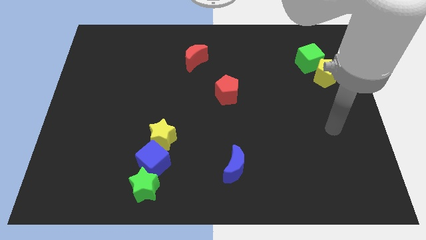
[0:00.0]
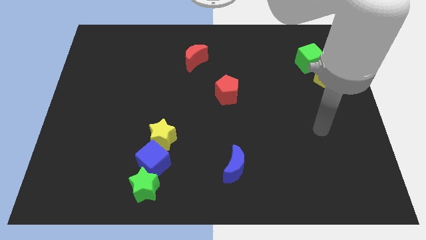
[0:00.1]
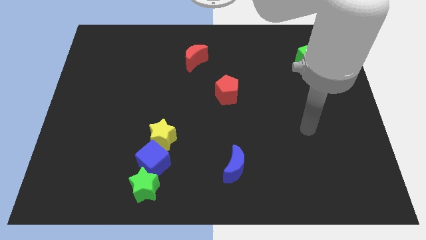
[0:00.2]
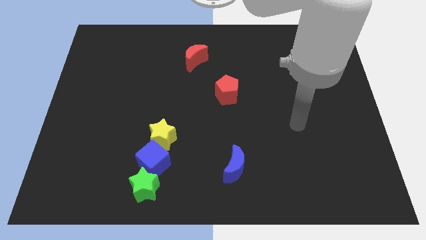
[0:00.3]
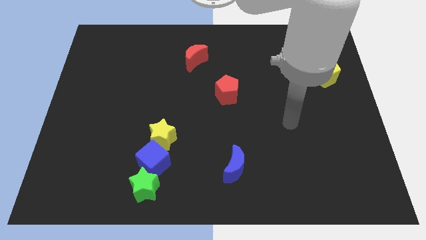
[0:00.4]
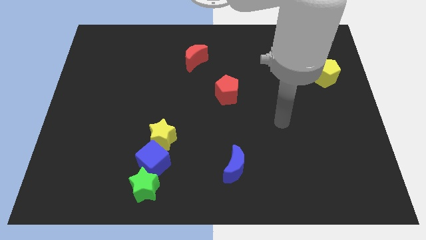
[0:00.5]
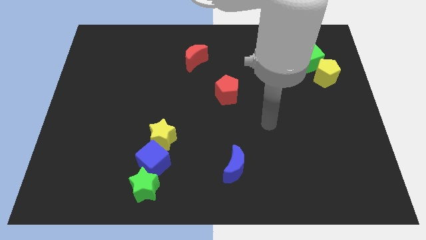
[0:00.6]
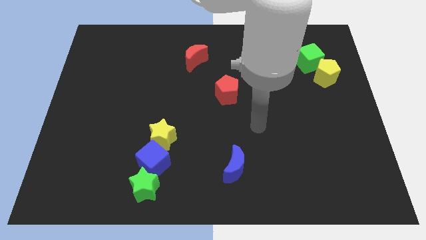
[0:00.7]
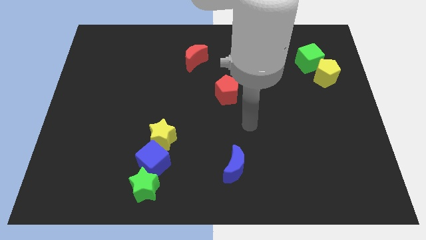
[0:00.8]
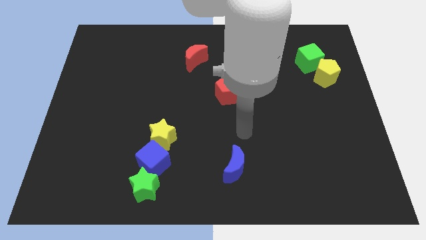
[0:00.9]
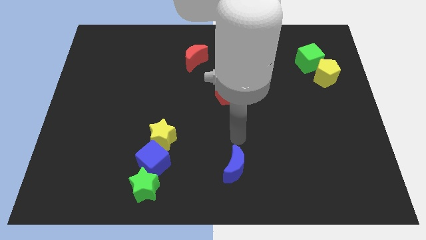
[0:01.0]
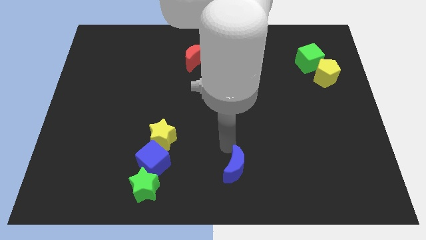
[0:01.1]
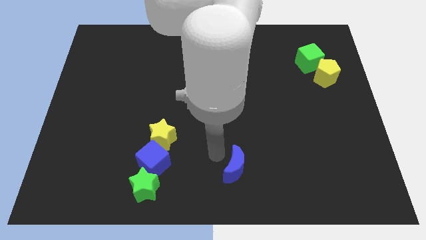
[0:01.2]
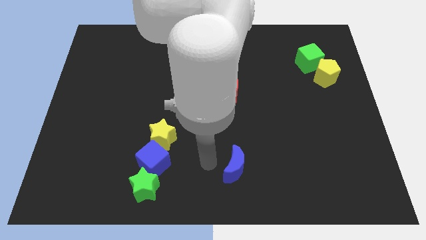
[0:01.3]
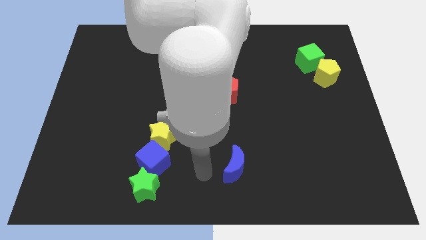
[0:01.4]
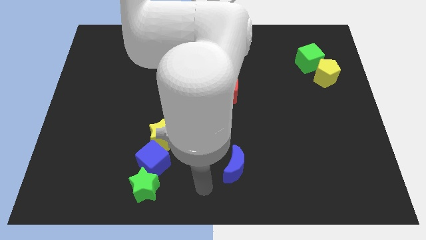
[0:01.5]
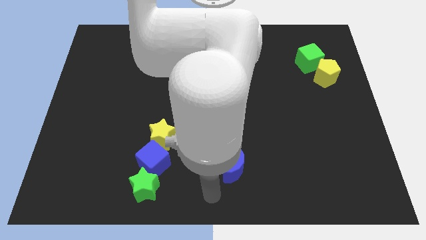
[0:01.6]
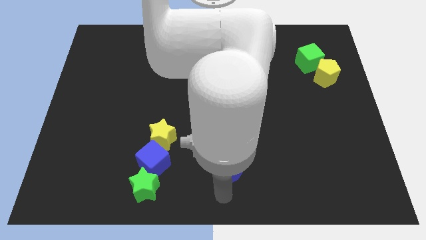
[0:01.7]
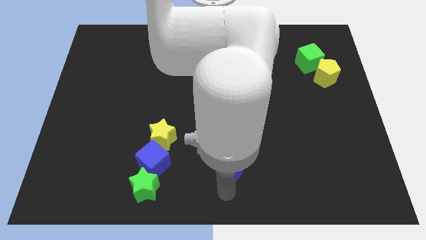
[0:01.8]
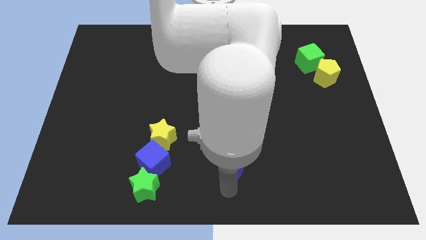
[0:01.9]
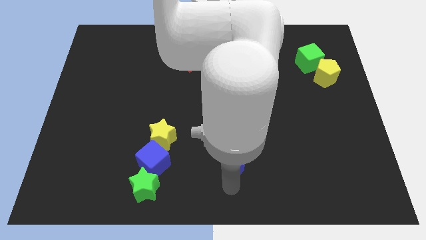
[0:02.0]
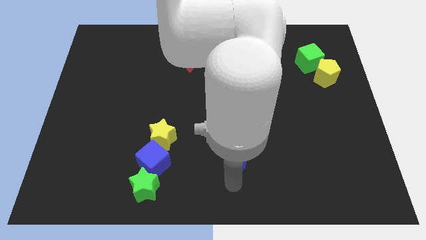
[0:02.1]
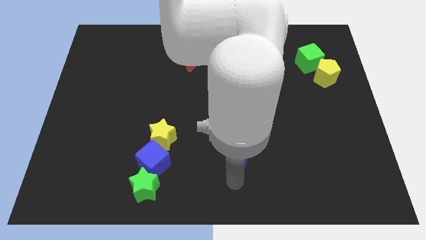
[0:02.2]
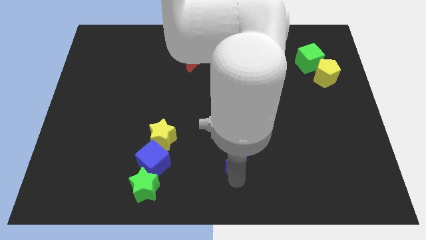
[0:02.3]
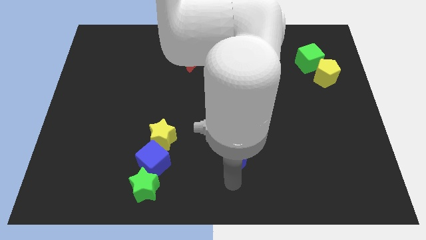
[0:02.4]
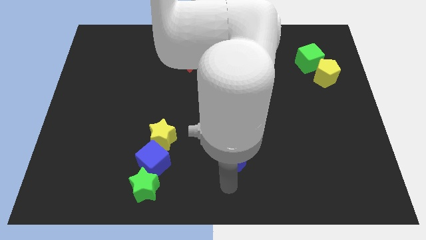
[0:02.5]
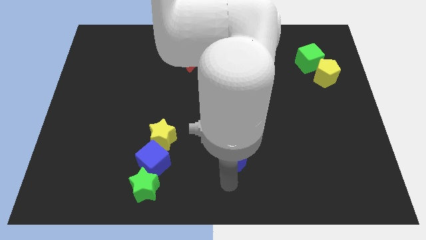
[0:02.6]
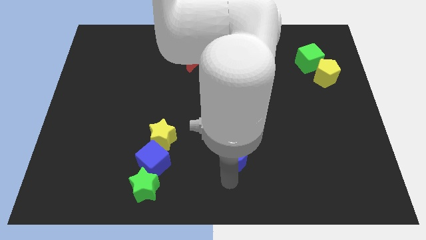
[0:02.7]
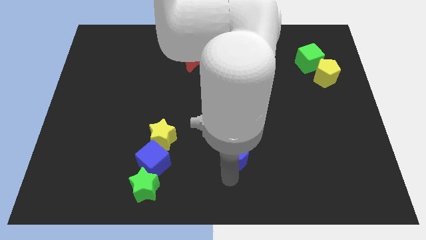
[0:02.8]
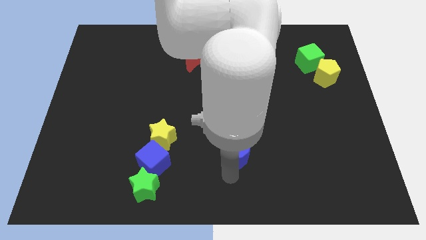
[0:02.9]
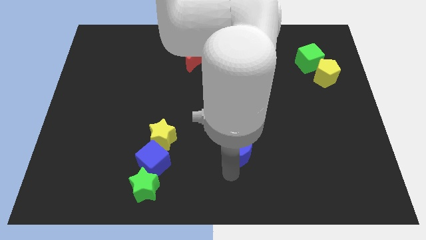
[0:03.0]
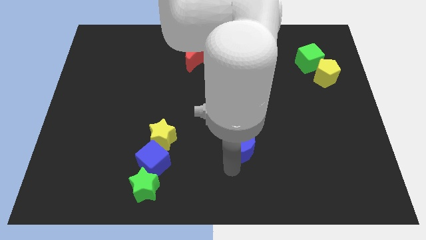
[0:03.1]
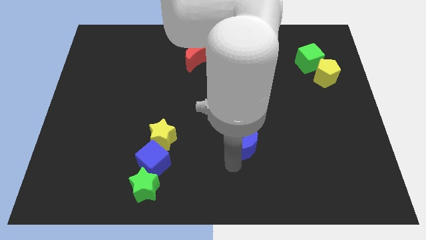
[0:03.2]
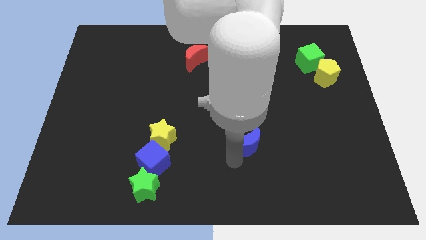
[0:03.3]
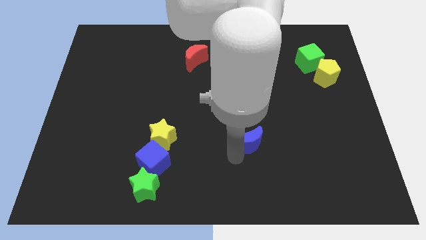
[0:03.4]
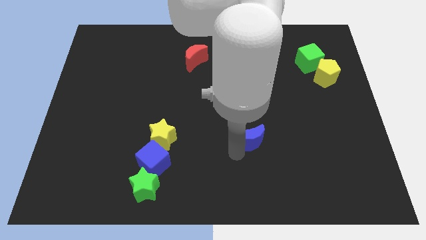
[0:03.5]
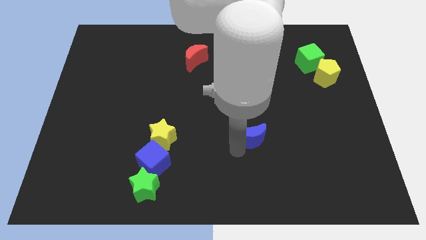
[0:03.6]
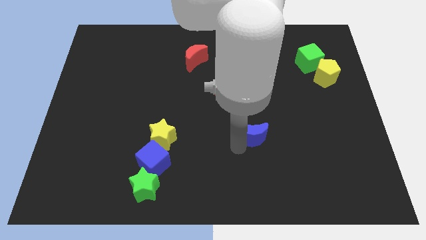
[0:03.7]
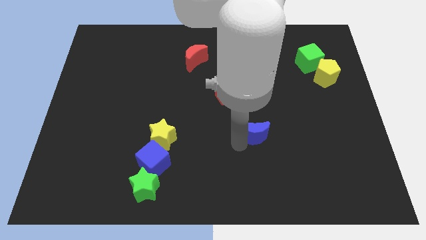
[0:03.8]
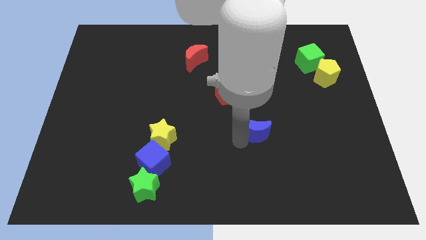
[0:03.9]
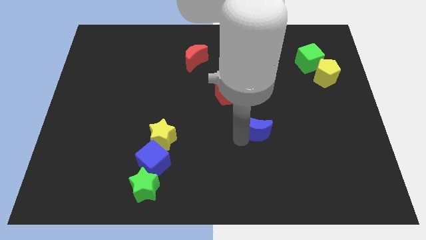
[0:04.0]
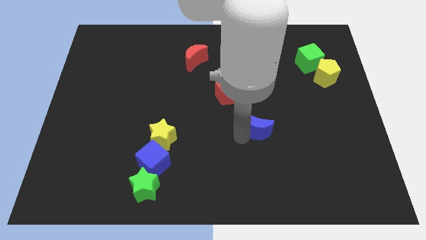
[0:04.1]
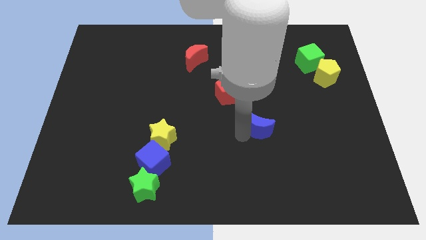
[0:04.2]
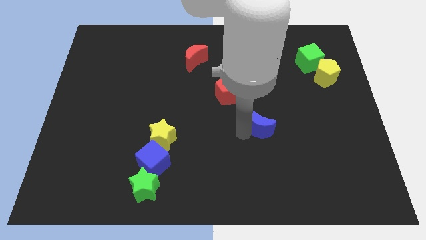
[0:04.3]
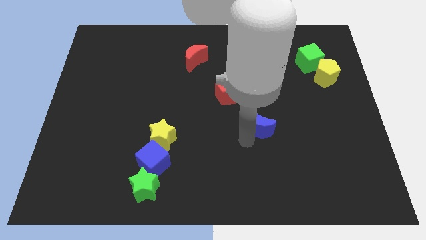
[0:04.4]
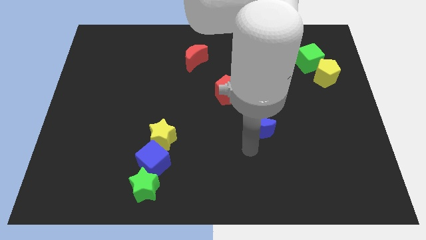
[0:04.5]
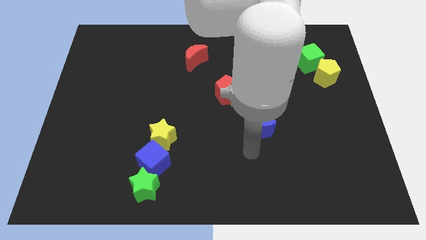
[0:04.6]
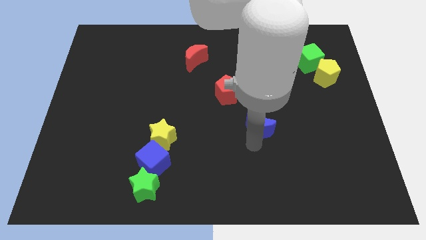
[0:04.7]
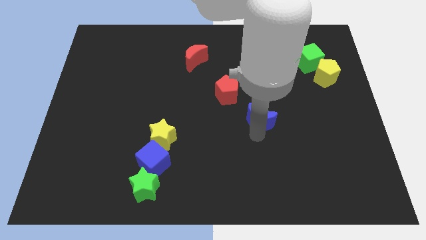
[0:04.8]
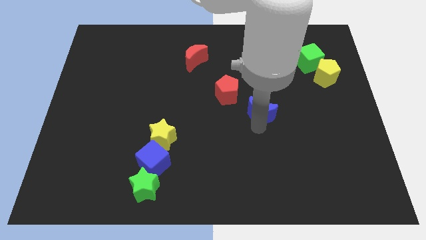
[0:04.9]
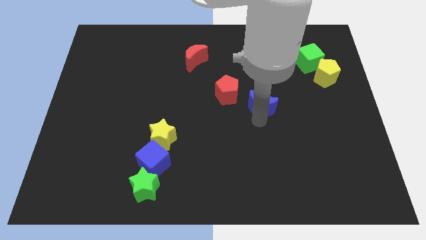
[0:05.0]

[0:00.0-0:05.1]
push the blue moon to the right side of the red pentagon

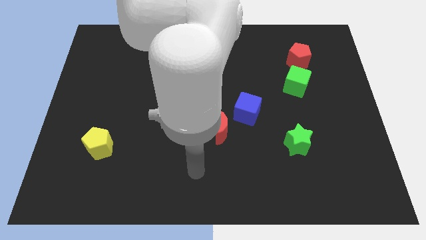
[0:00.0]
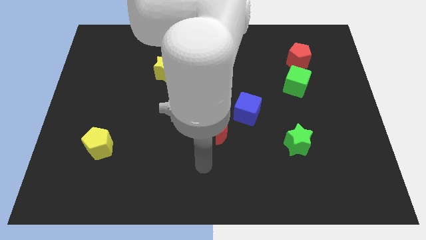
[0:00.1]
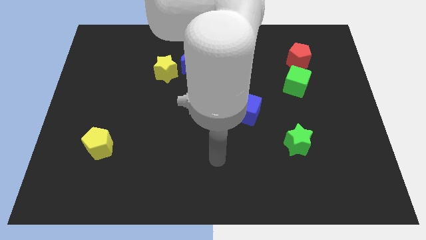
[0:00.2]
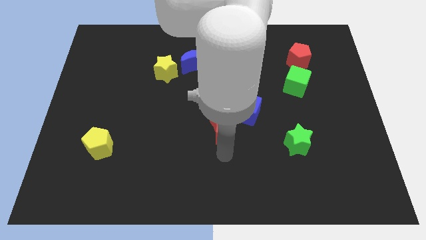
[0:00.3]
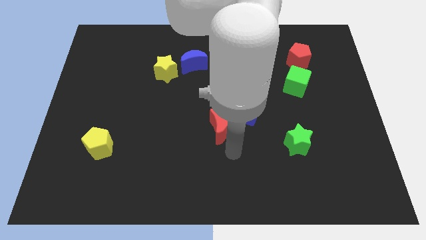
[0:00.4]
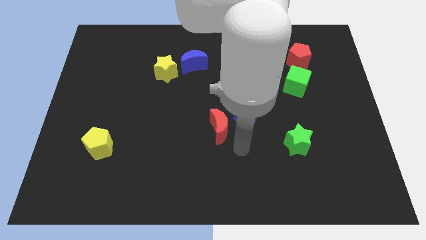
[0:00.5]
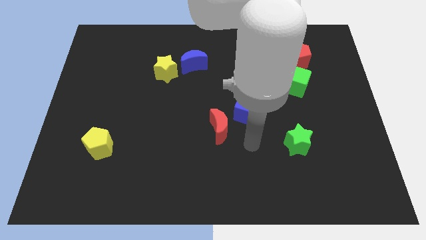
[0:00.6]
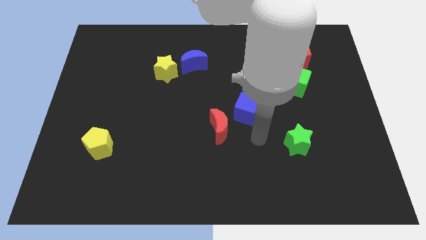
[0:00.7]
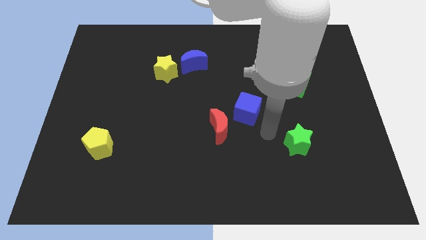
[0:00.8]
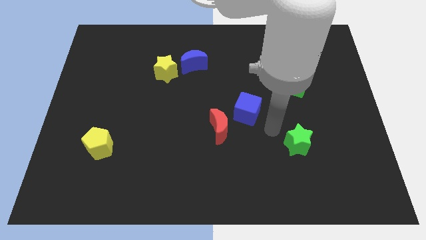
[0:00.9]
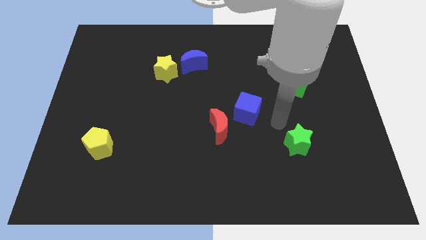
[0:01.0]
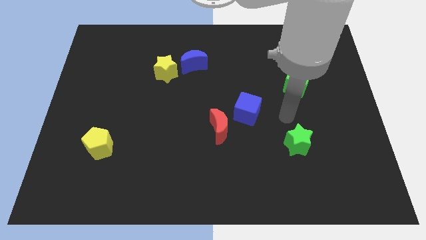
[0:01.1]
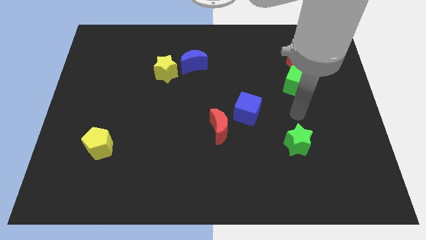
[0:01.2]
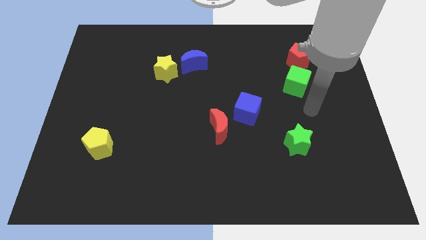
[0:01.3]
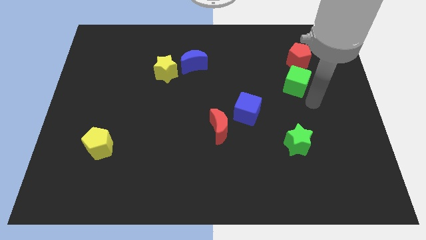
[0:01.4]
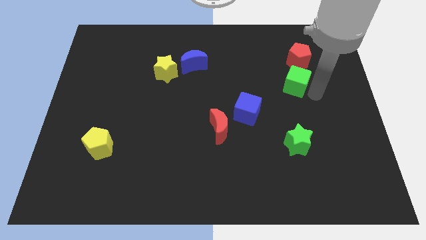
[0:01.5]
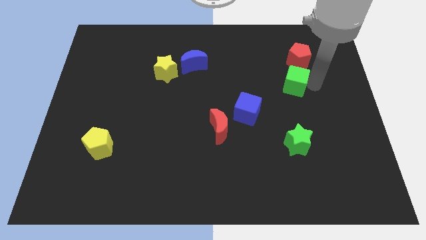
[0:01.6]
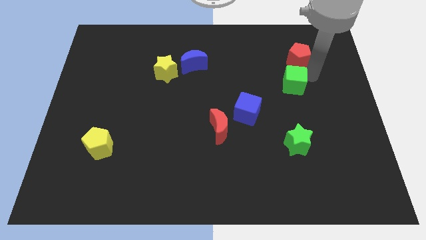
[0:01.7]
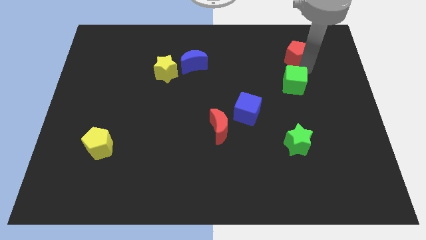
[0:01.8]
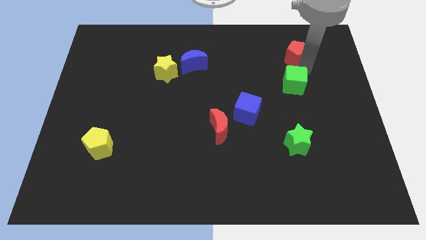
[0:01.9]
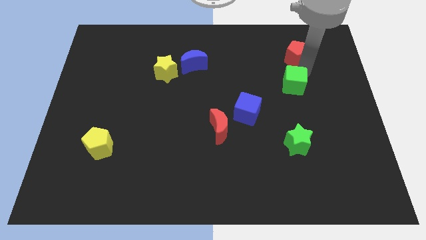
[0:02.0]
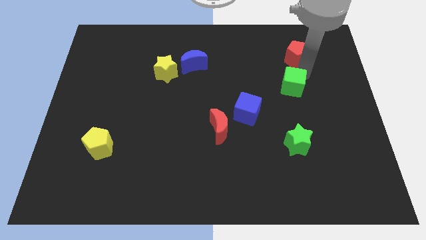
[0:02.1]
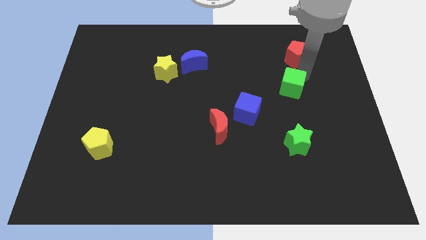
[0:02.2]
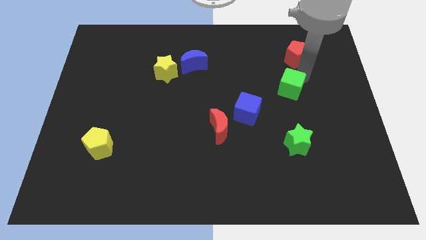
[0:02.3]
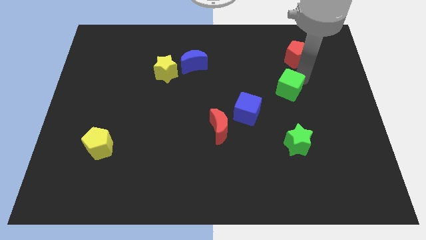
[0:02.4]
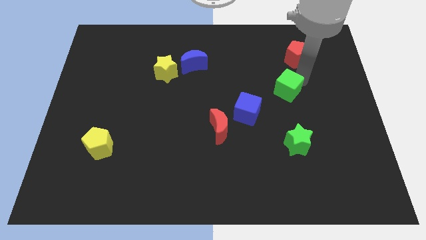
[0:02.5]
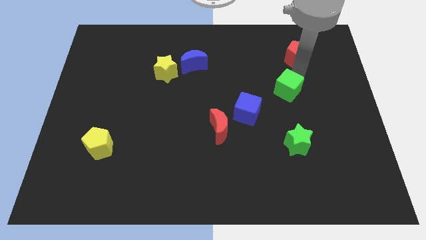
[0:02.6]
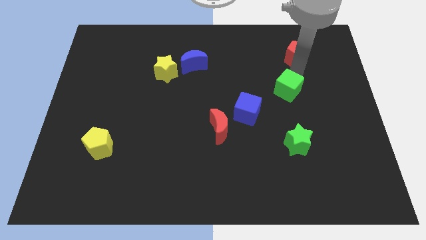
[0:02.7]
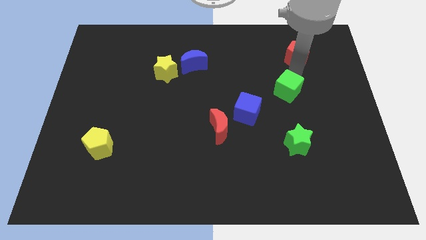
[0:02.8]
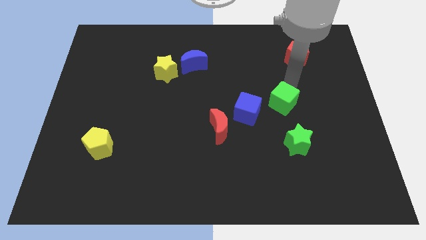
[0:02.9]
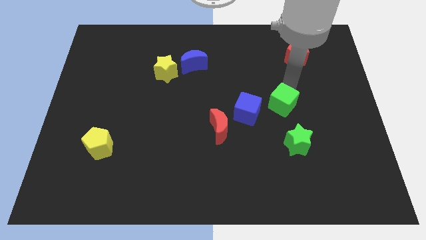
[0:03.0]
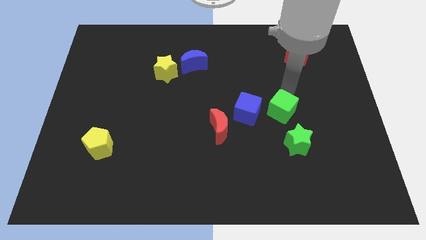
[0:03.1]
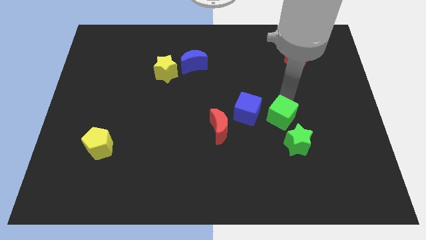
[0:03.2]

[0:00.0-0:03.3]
slide the green cube diagonally up and to the left of the green star
